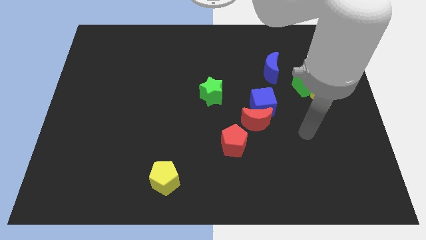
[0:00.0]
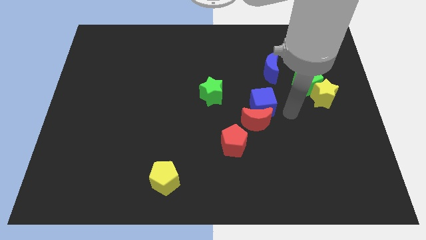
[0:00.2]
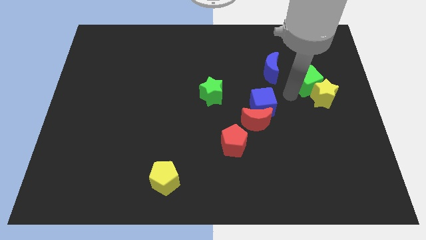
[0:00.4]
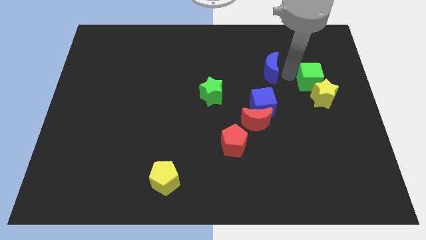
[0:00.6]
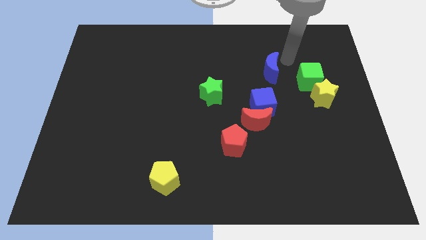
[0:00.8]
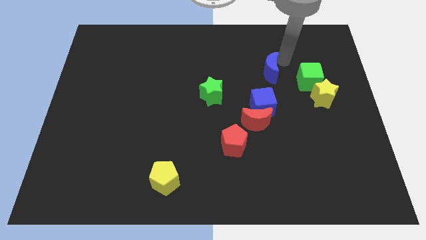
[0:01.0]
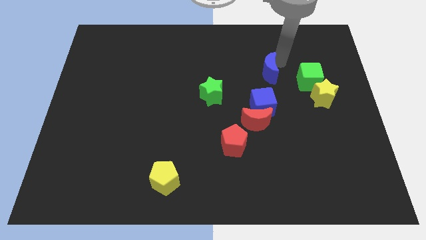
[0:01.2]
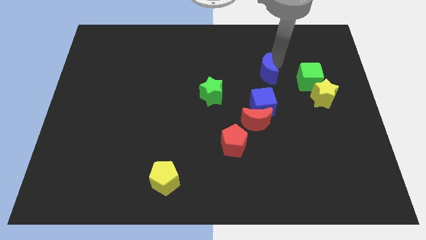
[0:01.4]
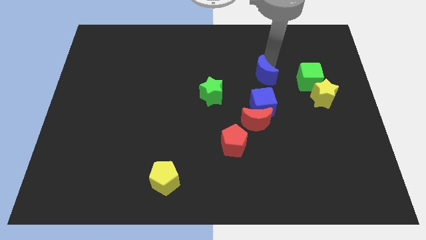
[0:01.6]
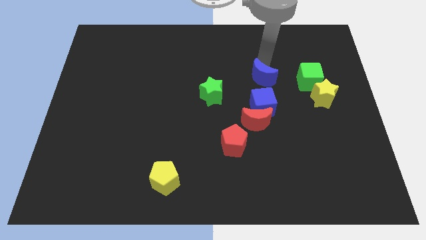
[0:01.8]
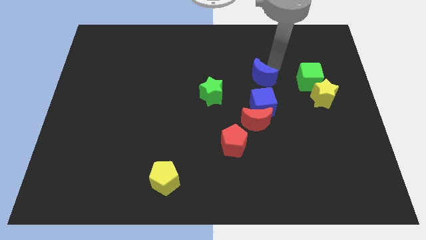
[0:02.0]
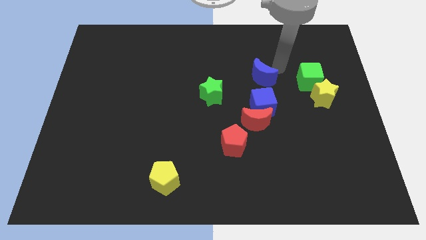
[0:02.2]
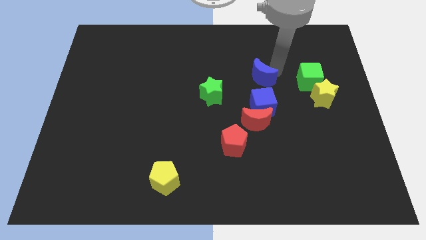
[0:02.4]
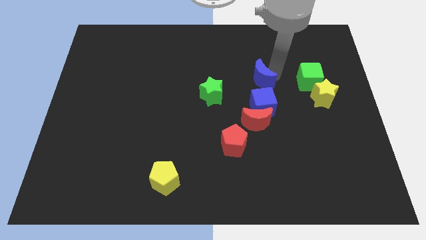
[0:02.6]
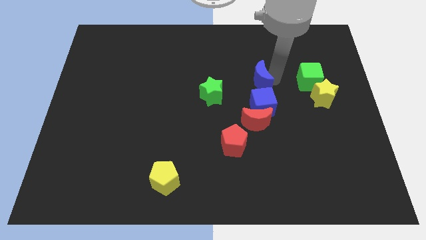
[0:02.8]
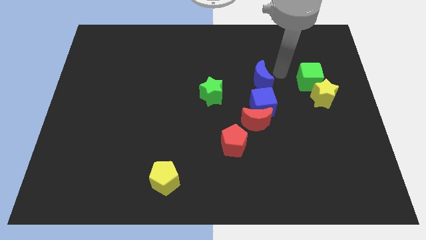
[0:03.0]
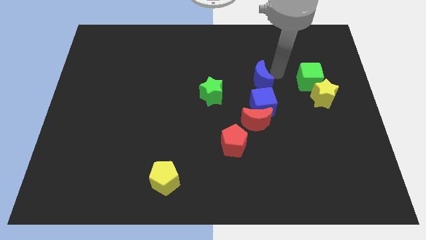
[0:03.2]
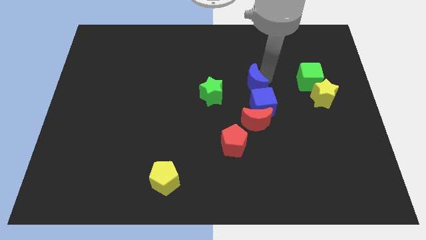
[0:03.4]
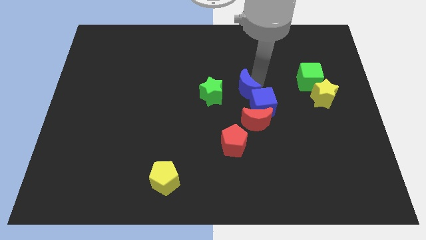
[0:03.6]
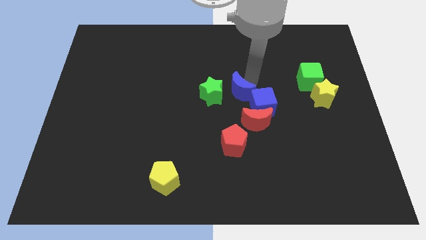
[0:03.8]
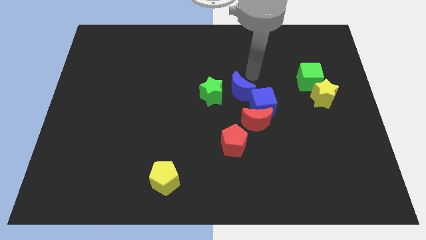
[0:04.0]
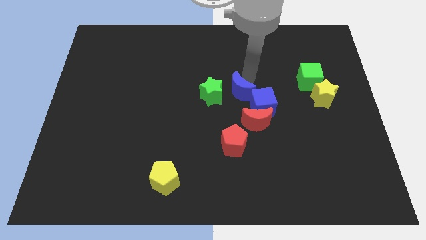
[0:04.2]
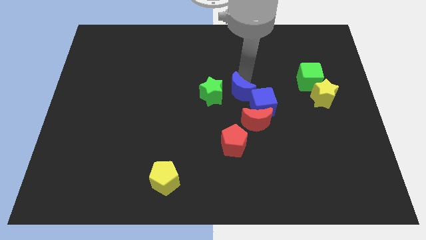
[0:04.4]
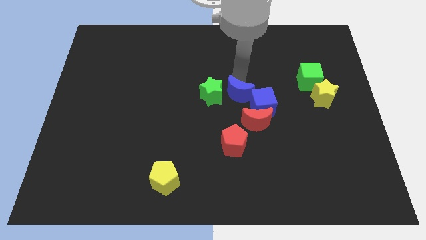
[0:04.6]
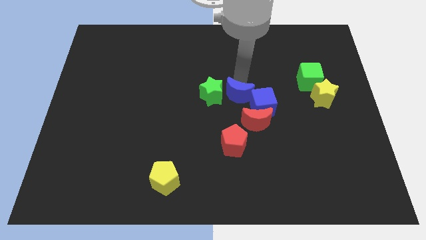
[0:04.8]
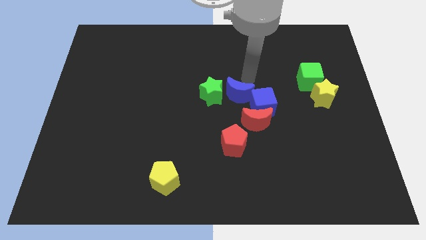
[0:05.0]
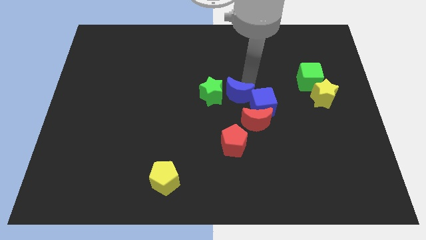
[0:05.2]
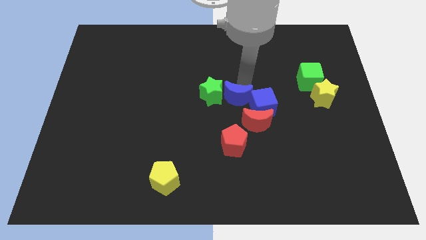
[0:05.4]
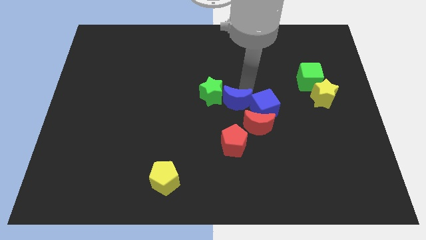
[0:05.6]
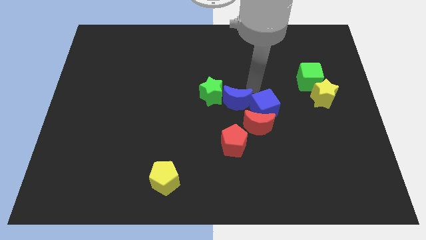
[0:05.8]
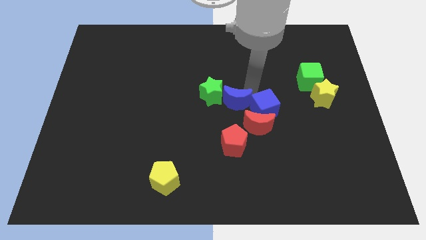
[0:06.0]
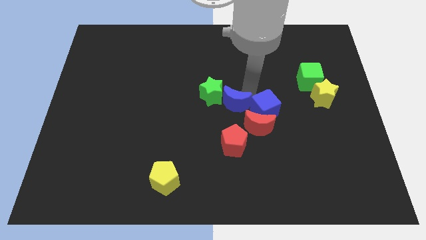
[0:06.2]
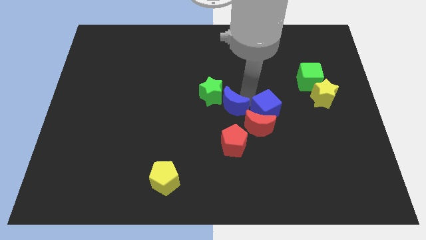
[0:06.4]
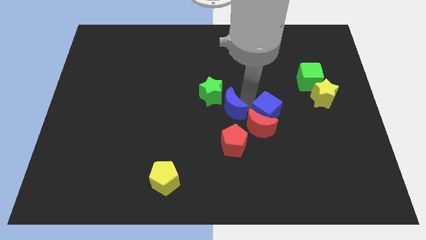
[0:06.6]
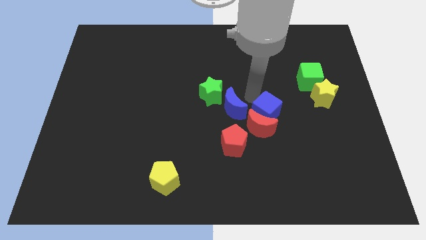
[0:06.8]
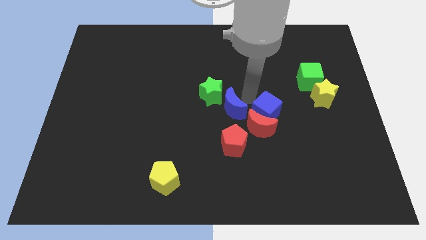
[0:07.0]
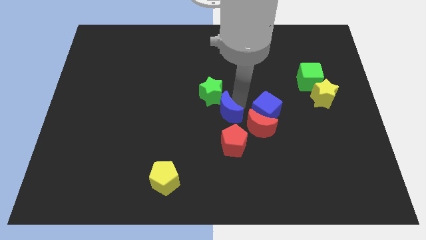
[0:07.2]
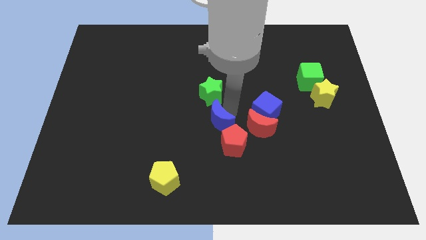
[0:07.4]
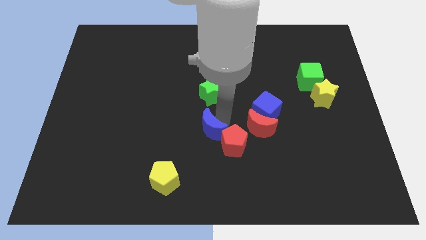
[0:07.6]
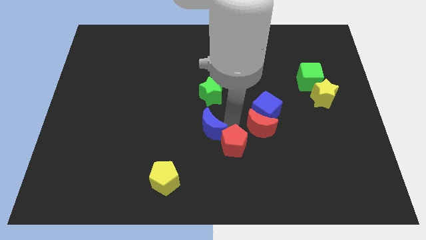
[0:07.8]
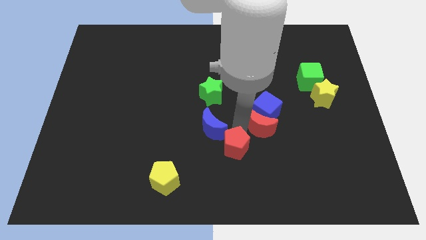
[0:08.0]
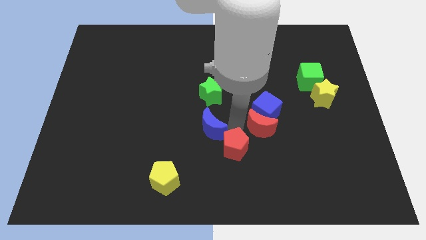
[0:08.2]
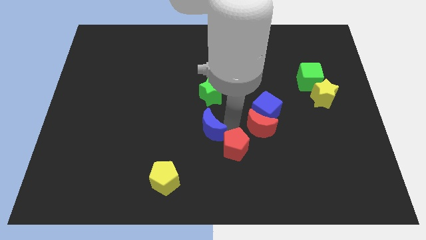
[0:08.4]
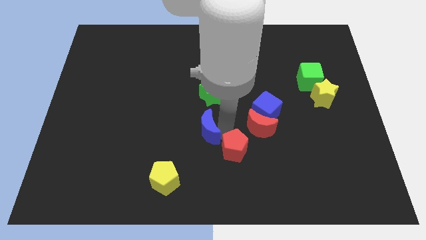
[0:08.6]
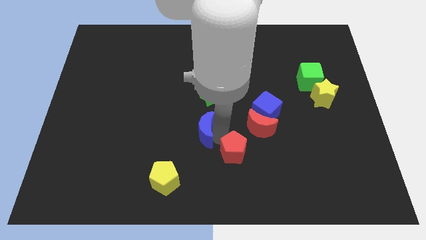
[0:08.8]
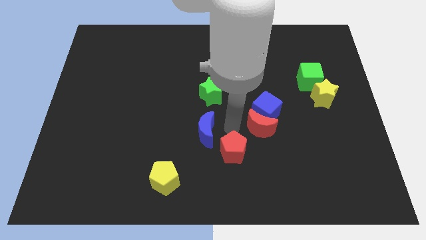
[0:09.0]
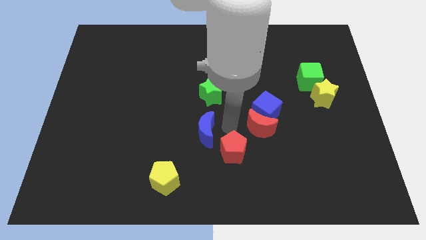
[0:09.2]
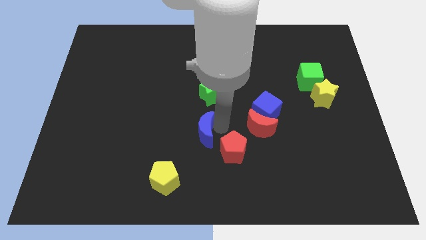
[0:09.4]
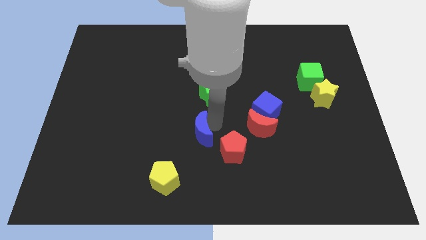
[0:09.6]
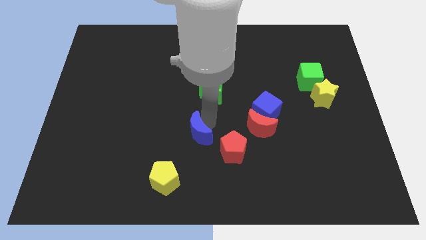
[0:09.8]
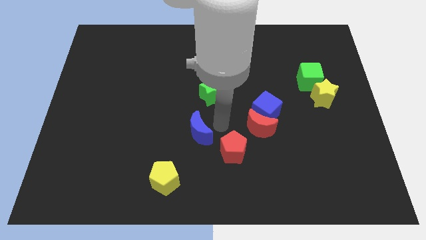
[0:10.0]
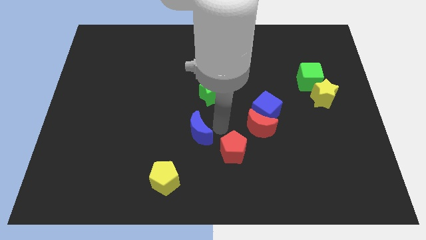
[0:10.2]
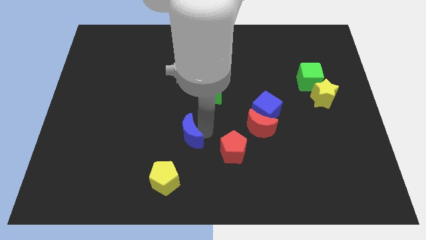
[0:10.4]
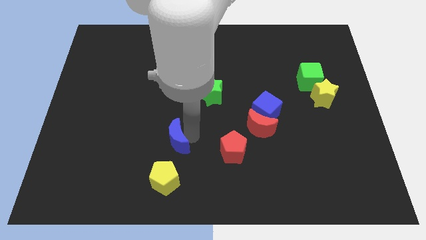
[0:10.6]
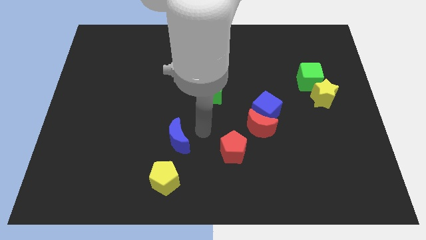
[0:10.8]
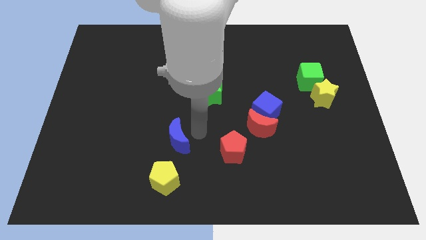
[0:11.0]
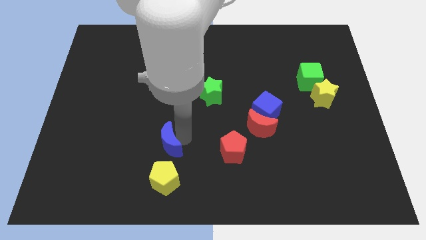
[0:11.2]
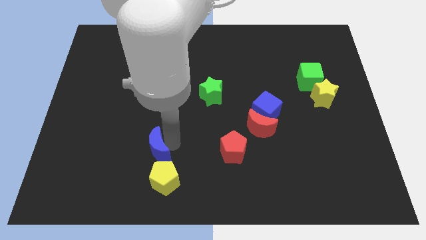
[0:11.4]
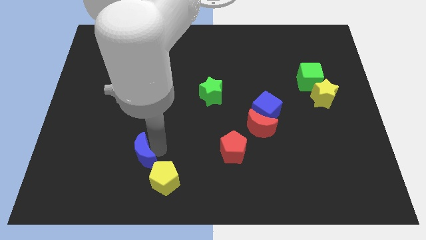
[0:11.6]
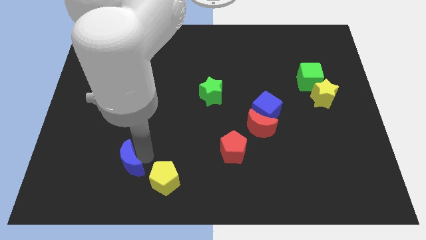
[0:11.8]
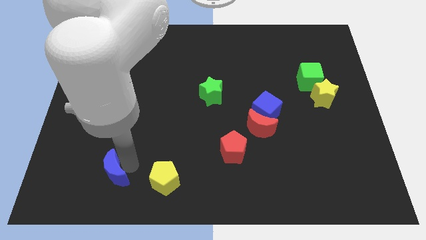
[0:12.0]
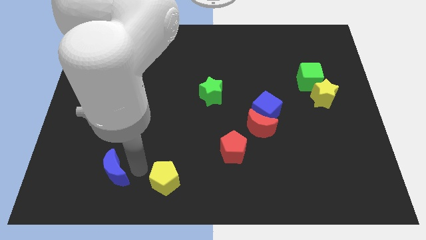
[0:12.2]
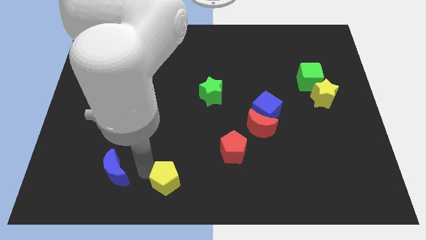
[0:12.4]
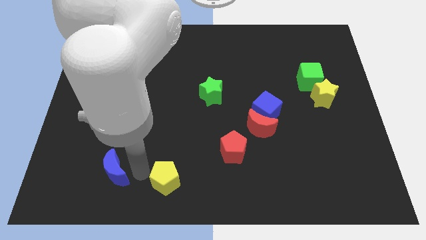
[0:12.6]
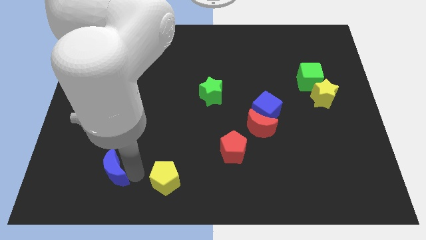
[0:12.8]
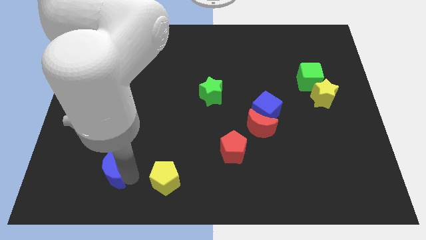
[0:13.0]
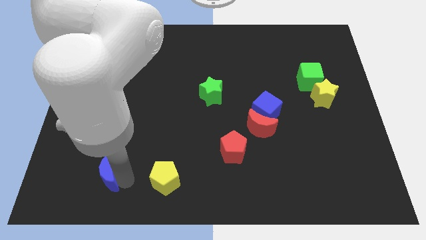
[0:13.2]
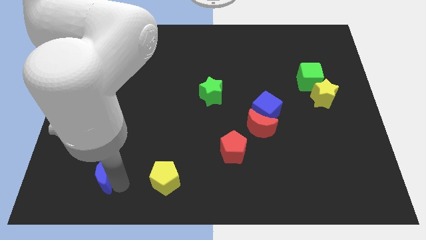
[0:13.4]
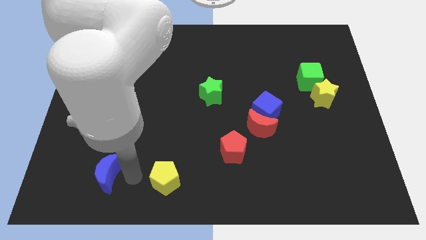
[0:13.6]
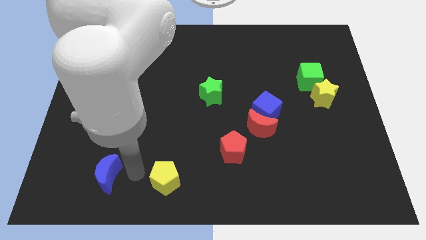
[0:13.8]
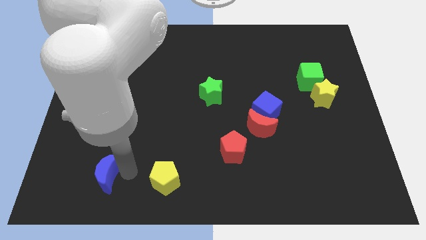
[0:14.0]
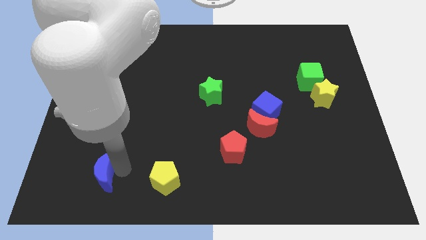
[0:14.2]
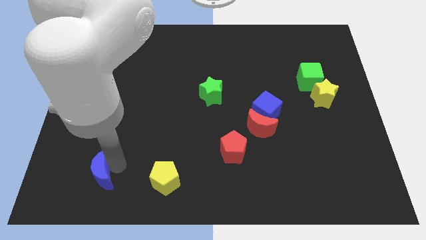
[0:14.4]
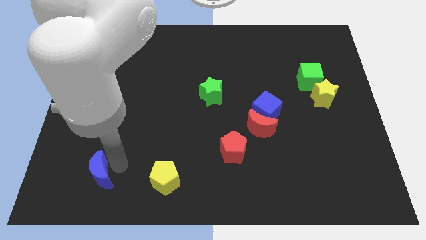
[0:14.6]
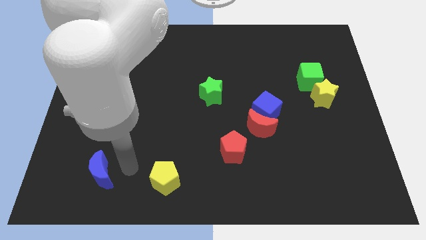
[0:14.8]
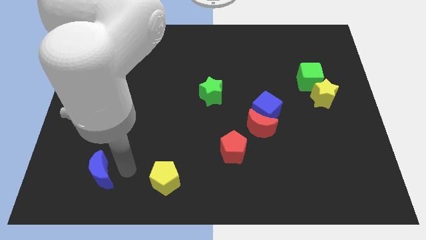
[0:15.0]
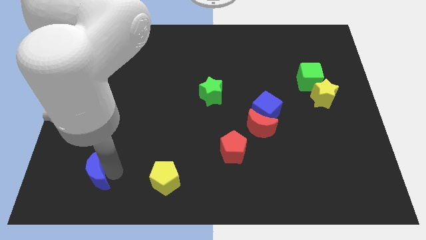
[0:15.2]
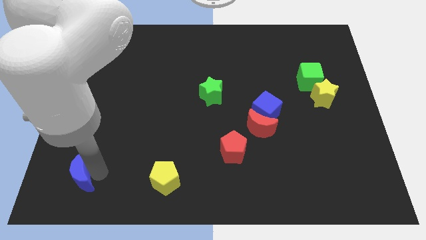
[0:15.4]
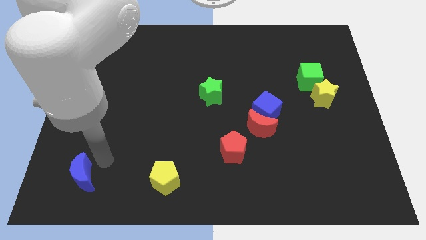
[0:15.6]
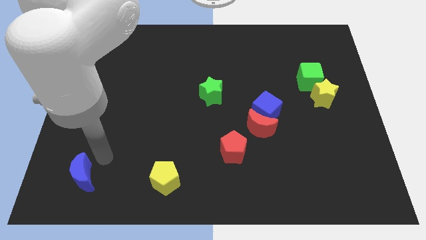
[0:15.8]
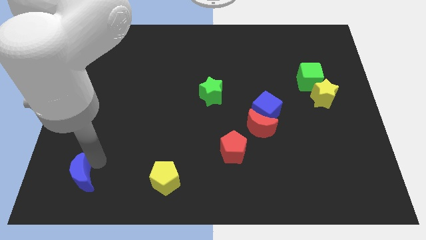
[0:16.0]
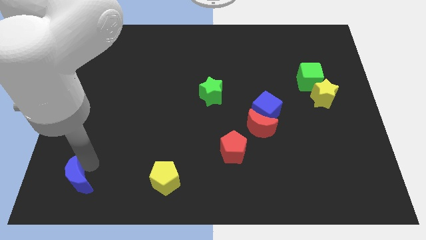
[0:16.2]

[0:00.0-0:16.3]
move the blue moon to the lower left corner
